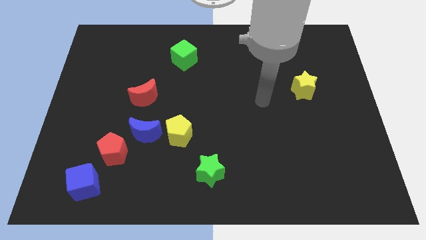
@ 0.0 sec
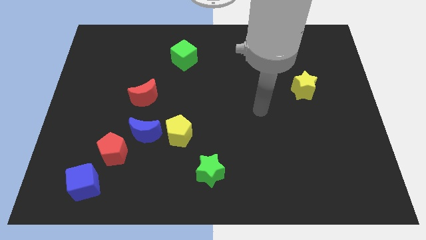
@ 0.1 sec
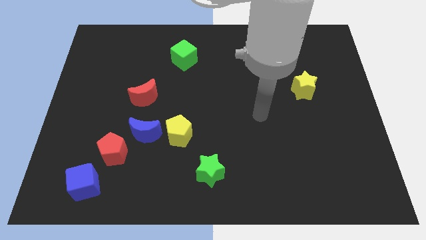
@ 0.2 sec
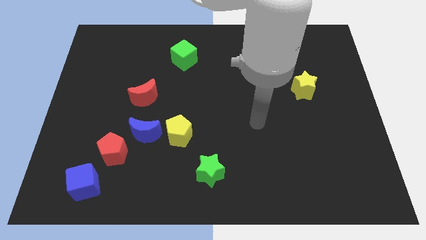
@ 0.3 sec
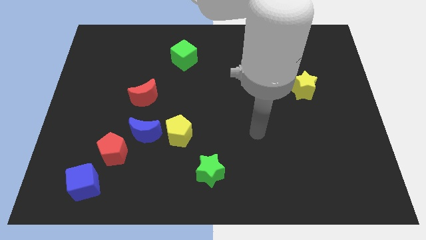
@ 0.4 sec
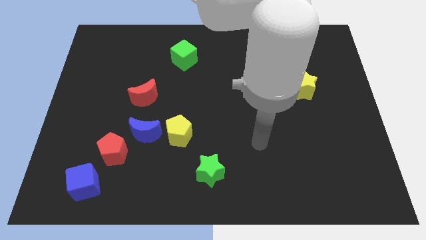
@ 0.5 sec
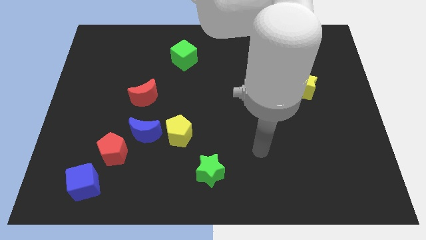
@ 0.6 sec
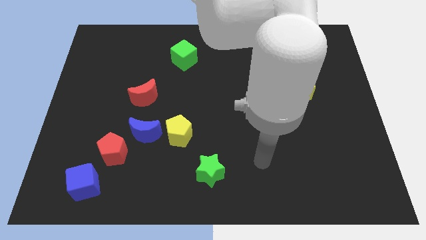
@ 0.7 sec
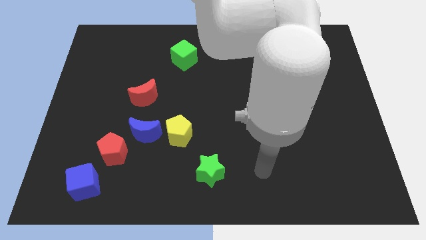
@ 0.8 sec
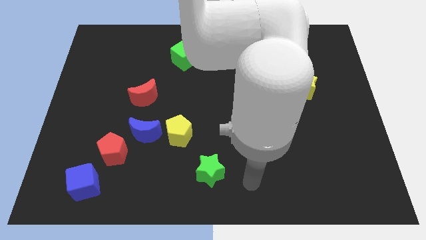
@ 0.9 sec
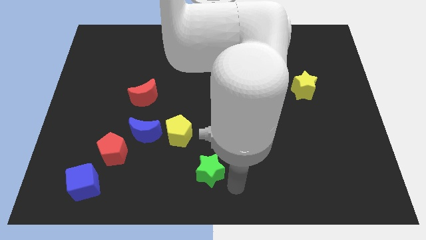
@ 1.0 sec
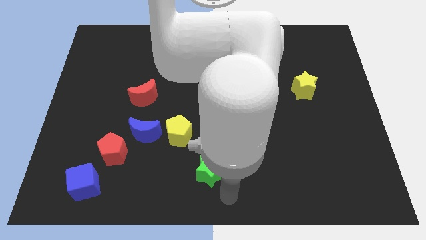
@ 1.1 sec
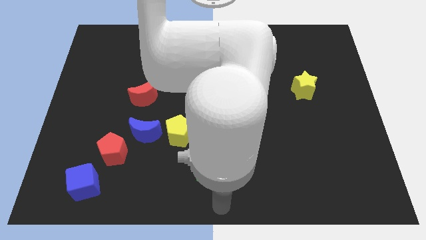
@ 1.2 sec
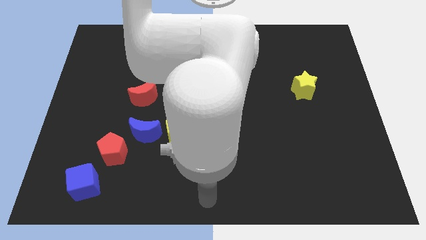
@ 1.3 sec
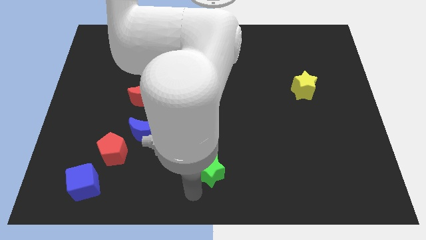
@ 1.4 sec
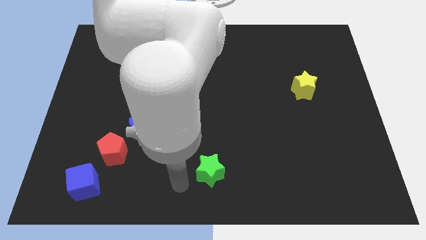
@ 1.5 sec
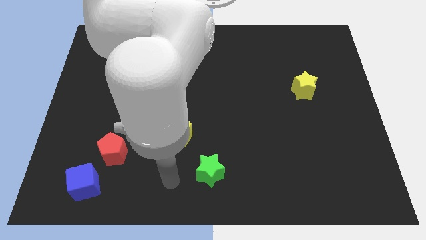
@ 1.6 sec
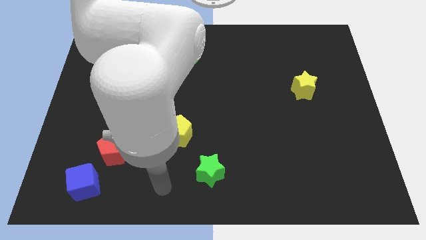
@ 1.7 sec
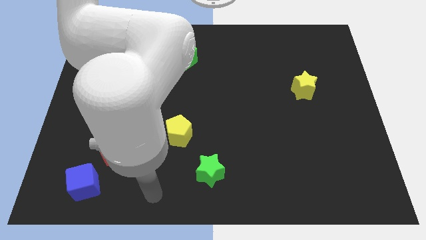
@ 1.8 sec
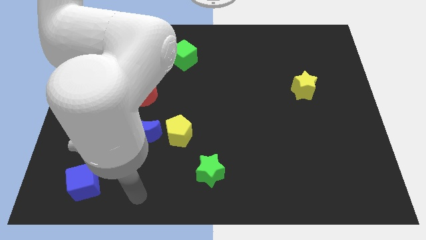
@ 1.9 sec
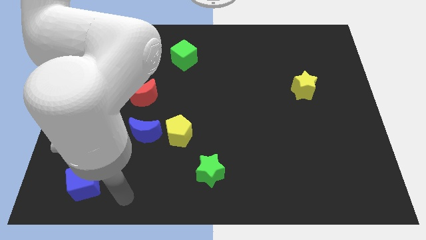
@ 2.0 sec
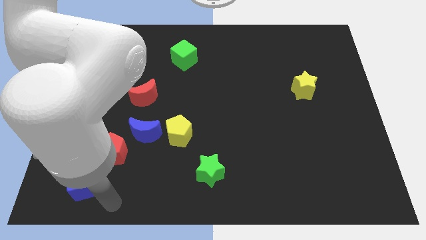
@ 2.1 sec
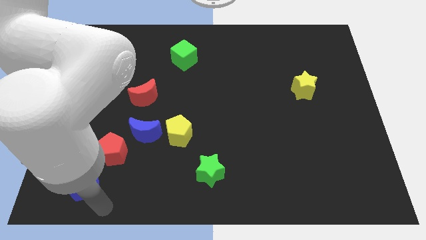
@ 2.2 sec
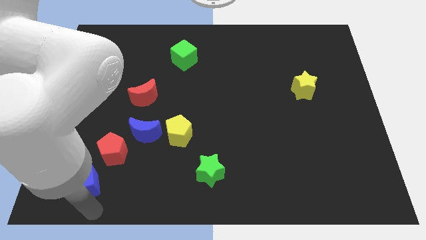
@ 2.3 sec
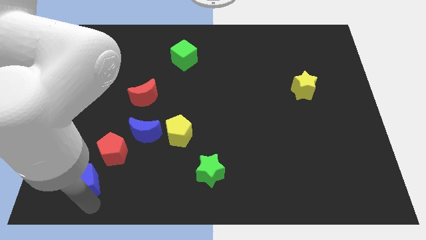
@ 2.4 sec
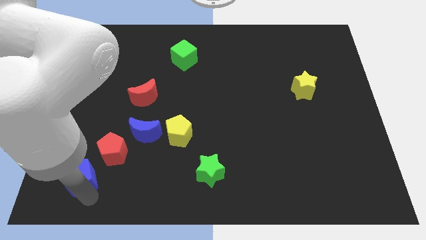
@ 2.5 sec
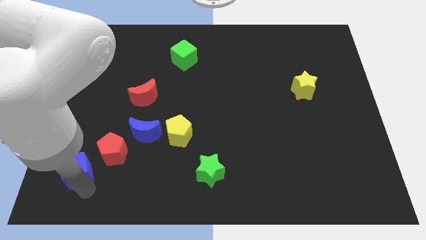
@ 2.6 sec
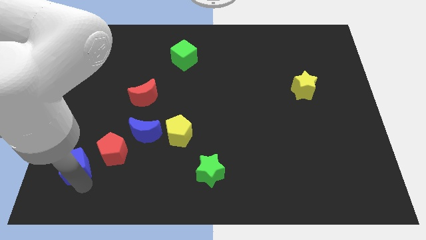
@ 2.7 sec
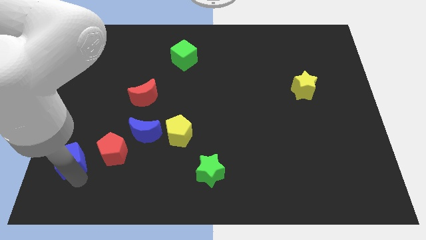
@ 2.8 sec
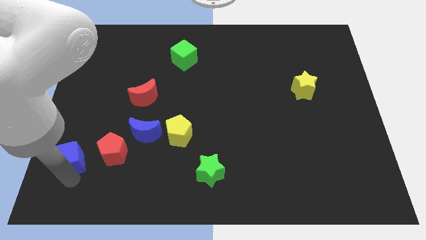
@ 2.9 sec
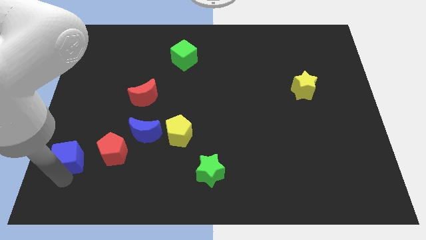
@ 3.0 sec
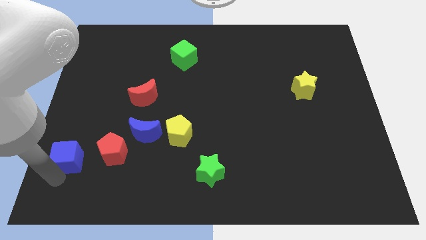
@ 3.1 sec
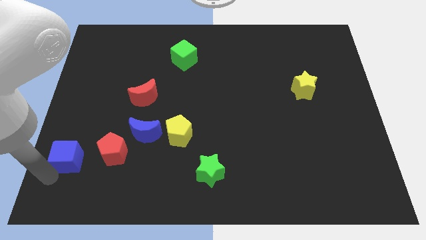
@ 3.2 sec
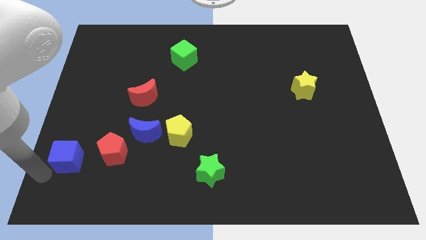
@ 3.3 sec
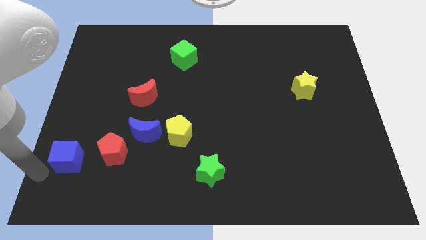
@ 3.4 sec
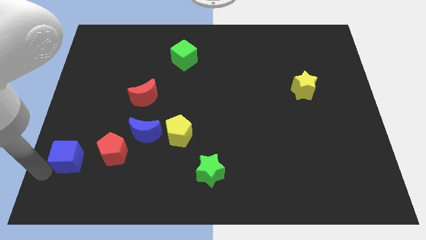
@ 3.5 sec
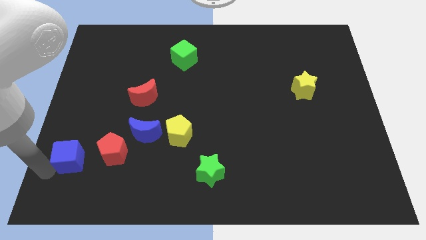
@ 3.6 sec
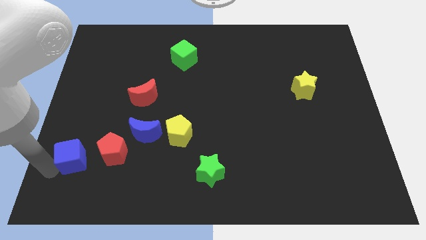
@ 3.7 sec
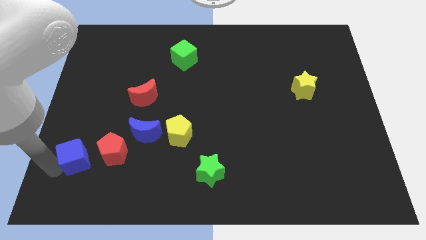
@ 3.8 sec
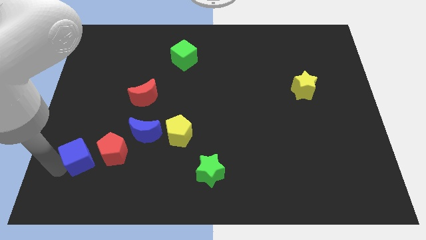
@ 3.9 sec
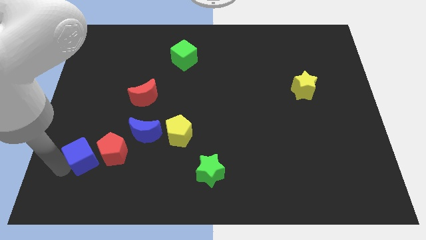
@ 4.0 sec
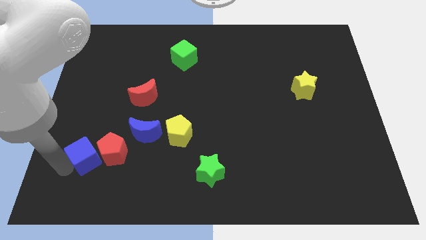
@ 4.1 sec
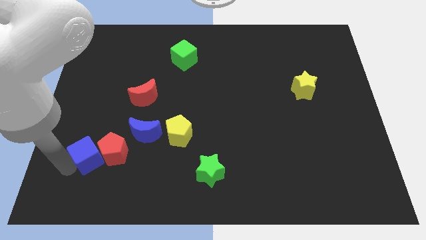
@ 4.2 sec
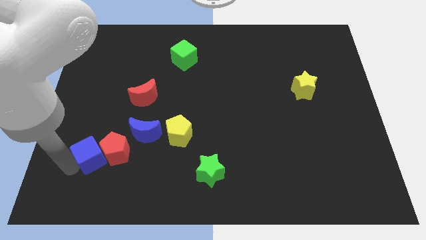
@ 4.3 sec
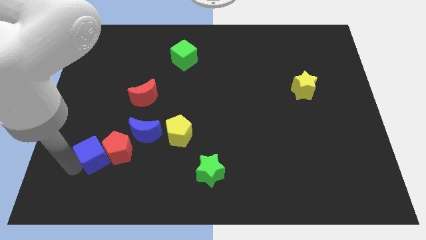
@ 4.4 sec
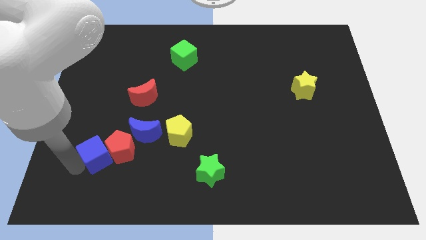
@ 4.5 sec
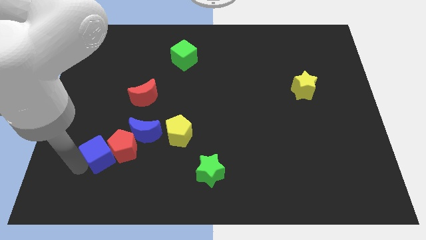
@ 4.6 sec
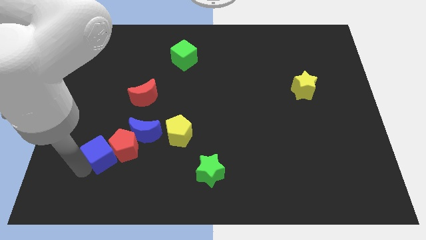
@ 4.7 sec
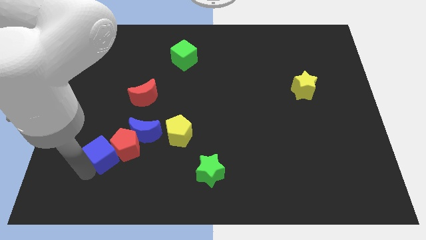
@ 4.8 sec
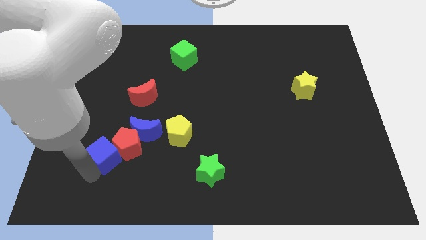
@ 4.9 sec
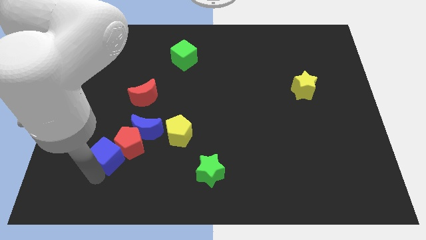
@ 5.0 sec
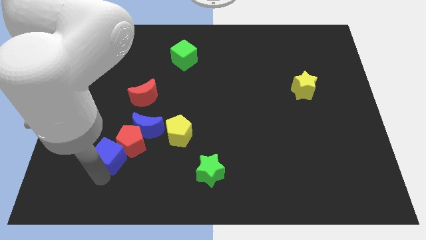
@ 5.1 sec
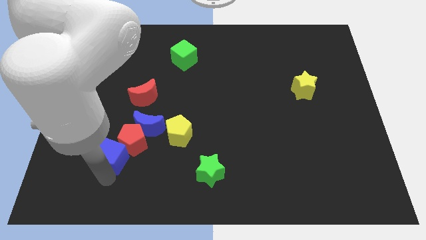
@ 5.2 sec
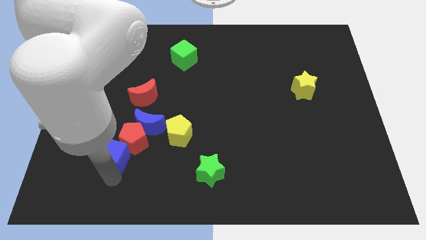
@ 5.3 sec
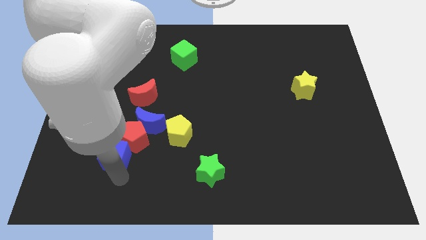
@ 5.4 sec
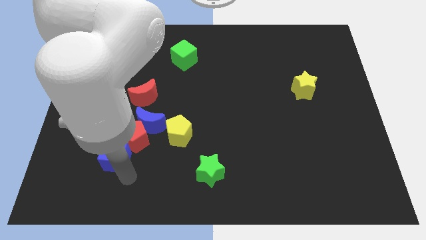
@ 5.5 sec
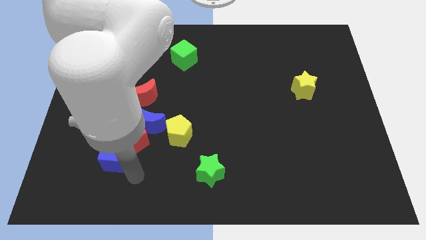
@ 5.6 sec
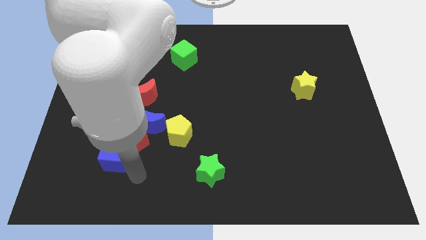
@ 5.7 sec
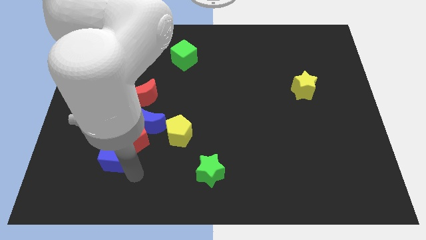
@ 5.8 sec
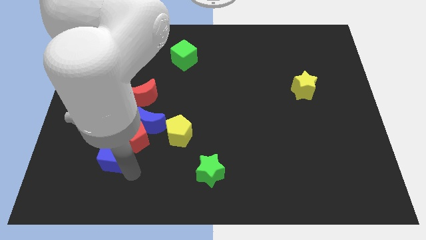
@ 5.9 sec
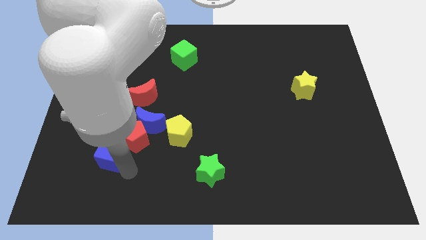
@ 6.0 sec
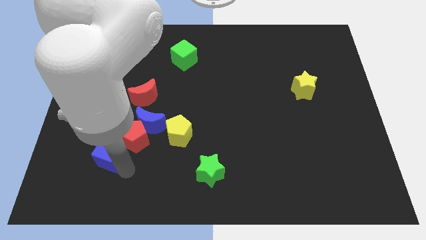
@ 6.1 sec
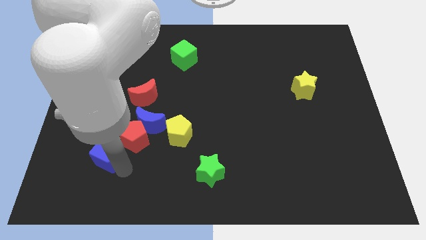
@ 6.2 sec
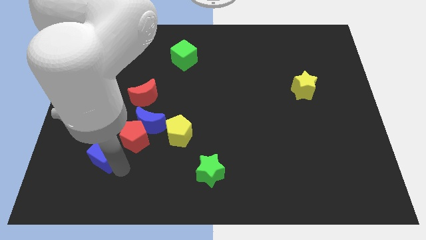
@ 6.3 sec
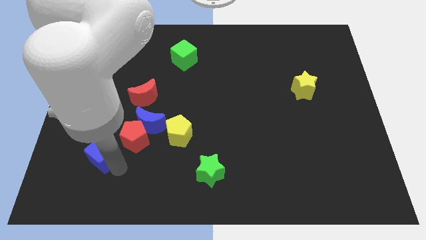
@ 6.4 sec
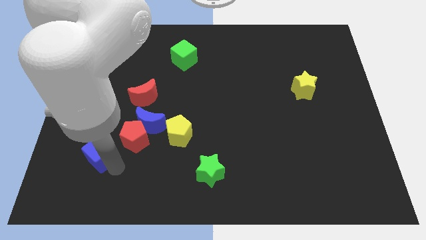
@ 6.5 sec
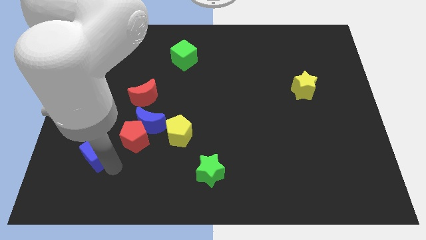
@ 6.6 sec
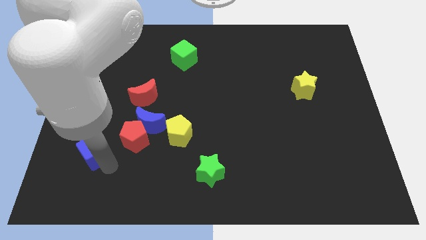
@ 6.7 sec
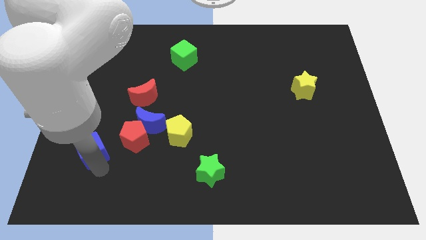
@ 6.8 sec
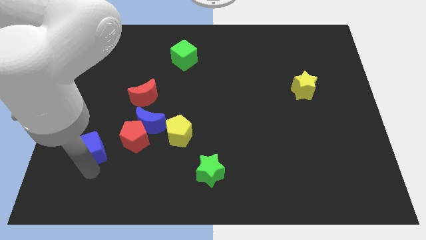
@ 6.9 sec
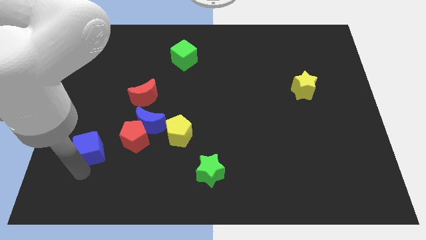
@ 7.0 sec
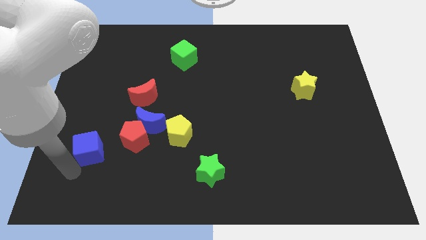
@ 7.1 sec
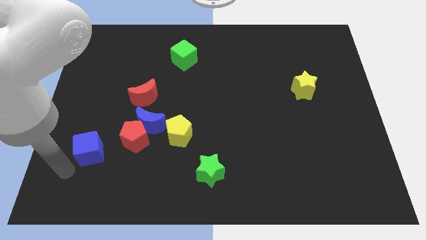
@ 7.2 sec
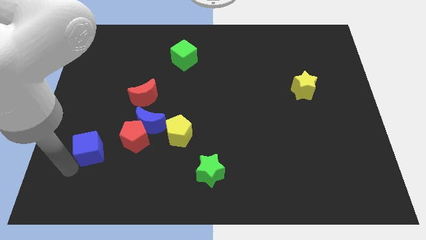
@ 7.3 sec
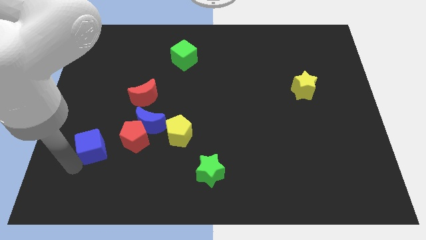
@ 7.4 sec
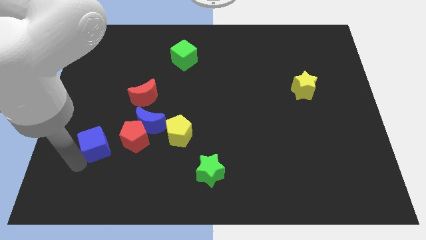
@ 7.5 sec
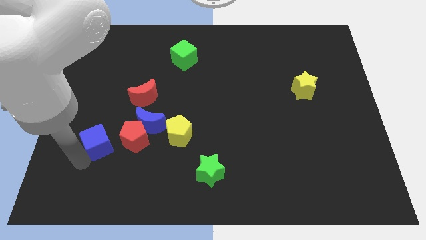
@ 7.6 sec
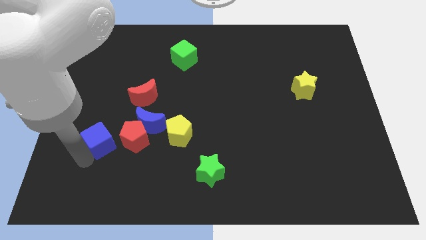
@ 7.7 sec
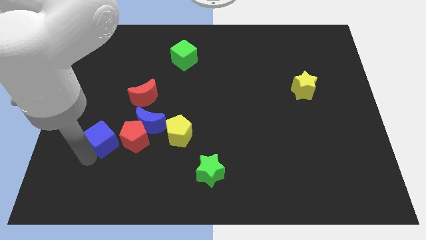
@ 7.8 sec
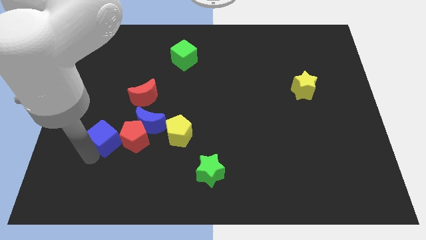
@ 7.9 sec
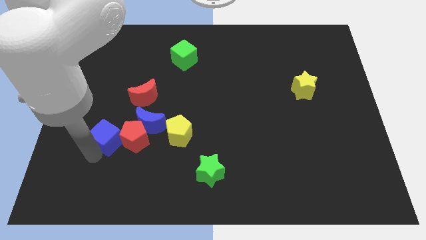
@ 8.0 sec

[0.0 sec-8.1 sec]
slide the blue cube just left of the yellow pentagon
